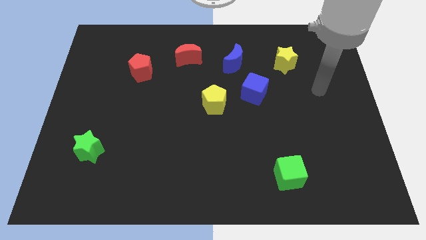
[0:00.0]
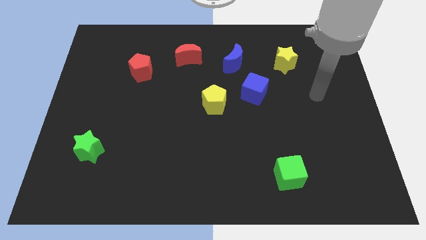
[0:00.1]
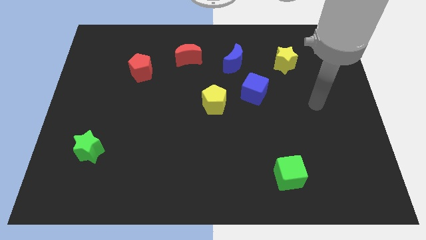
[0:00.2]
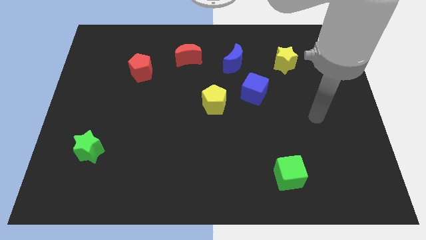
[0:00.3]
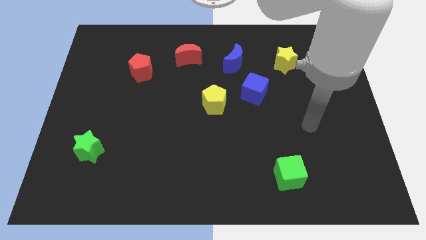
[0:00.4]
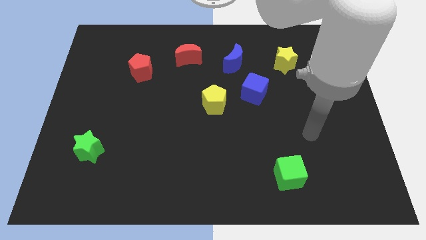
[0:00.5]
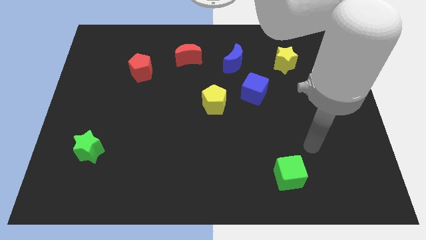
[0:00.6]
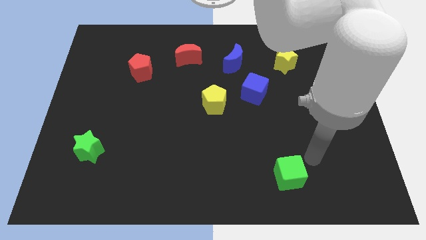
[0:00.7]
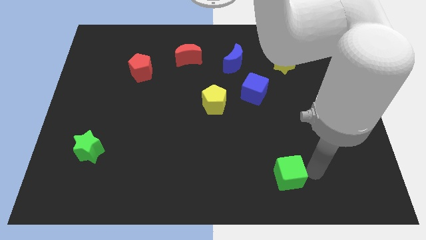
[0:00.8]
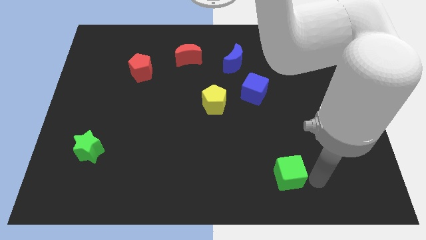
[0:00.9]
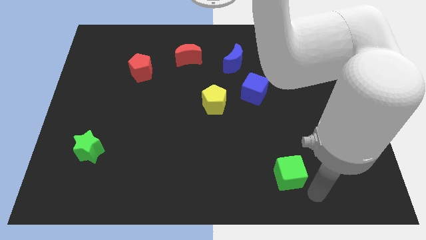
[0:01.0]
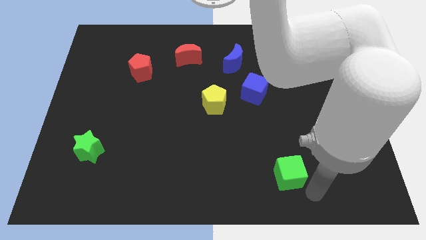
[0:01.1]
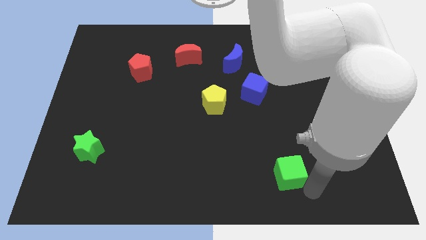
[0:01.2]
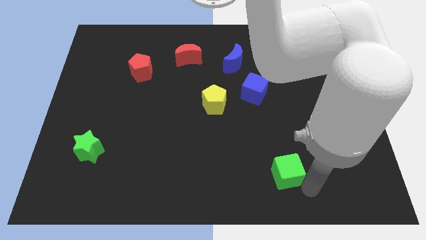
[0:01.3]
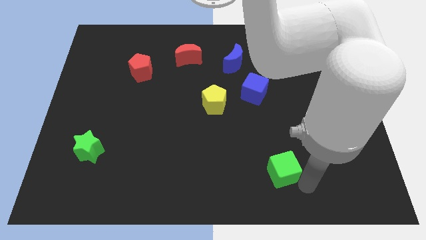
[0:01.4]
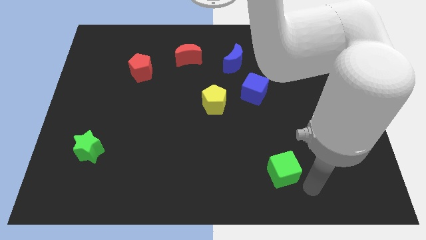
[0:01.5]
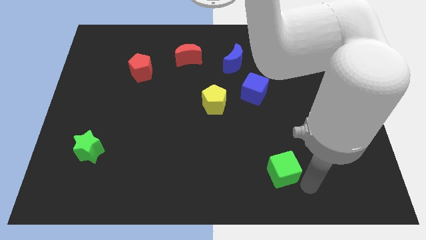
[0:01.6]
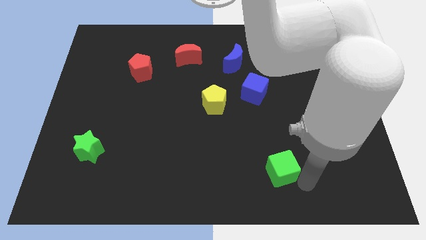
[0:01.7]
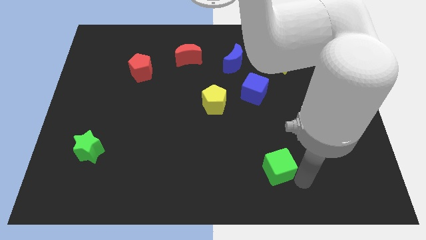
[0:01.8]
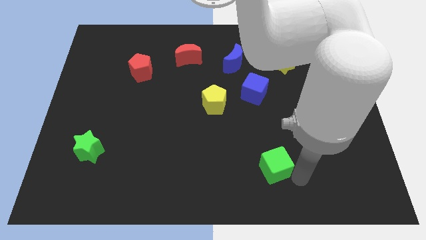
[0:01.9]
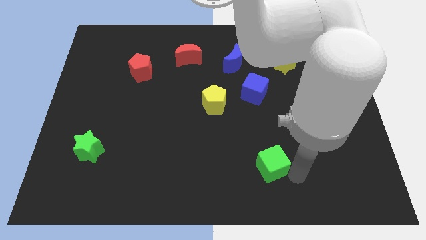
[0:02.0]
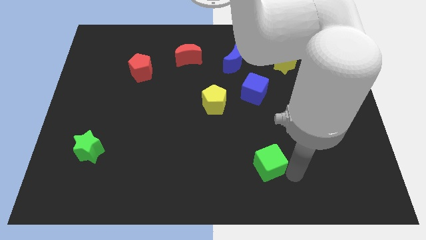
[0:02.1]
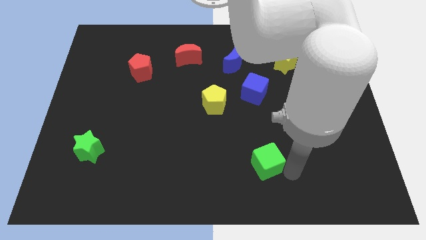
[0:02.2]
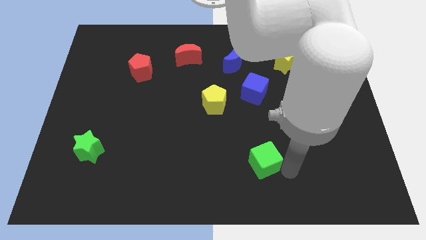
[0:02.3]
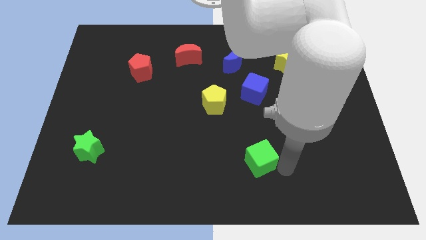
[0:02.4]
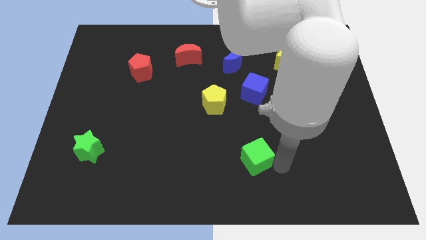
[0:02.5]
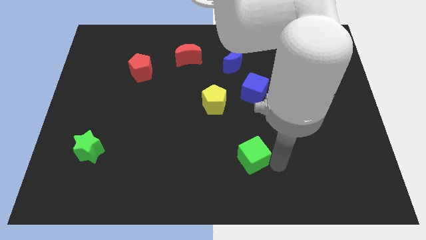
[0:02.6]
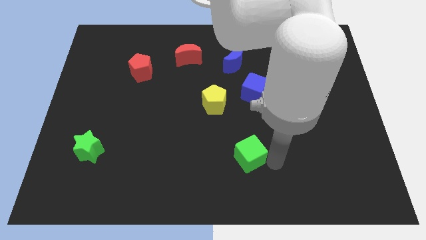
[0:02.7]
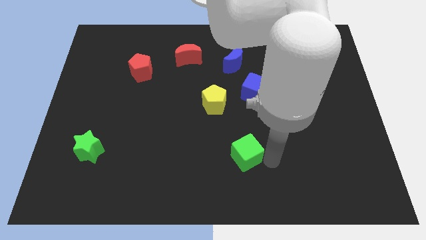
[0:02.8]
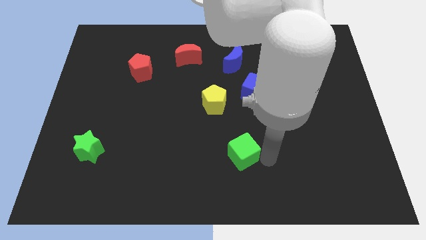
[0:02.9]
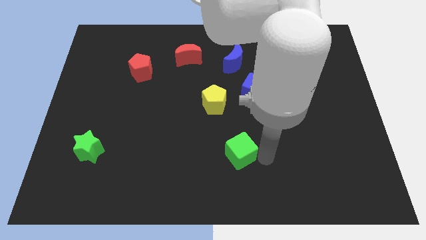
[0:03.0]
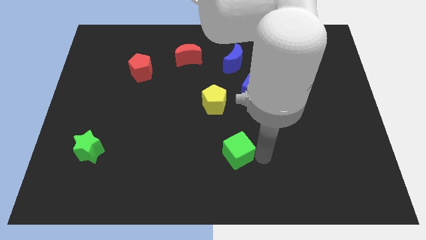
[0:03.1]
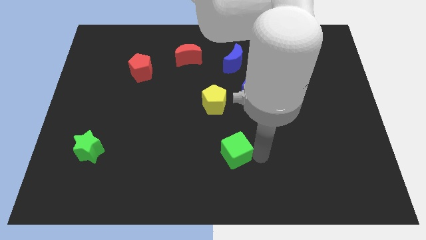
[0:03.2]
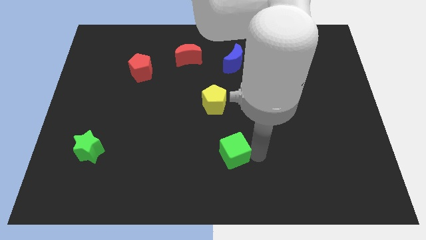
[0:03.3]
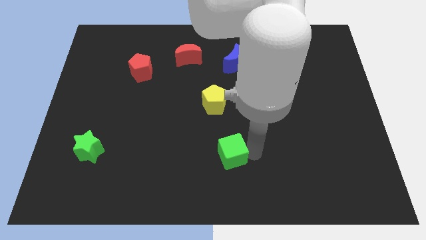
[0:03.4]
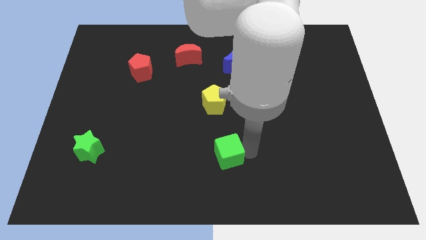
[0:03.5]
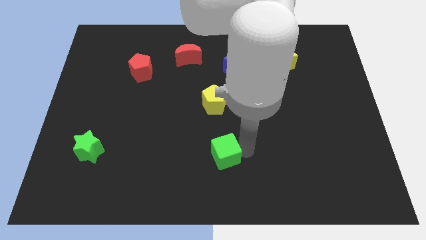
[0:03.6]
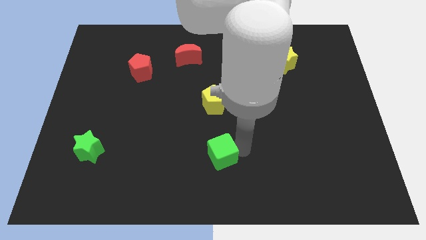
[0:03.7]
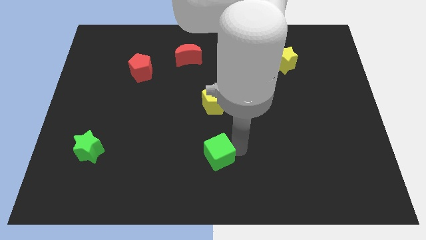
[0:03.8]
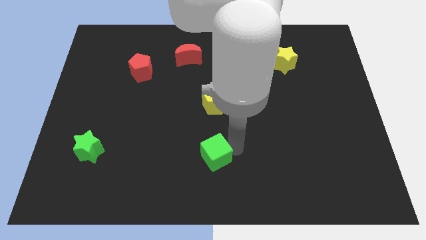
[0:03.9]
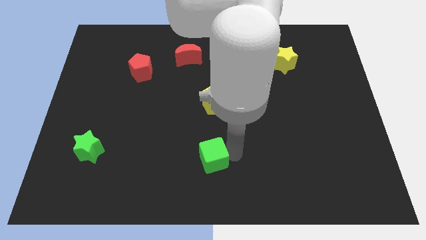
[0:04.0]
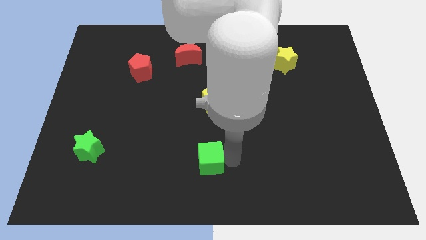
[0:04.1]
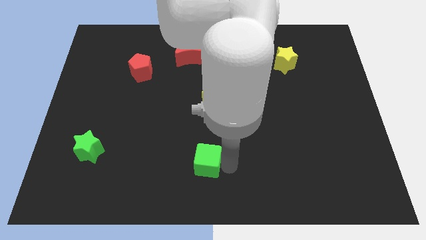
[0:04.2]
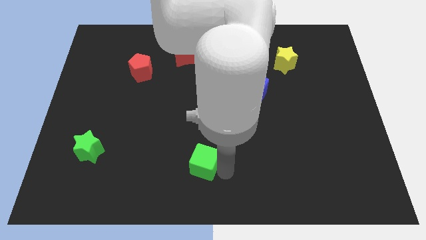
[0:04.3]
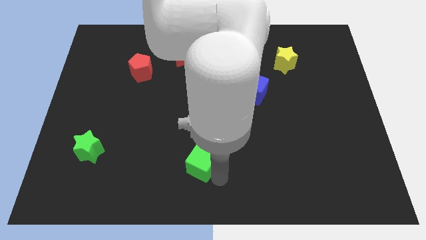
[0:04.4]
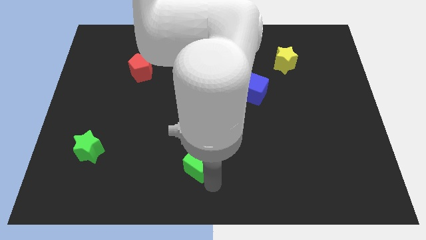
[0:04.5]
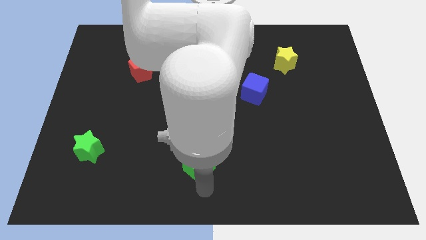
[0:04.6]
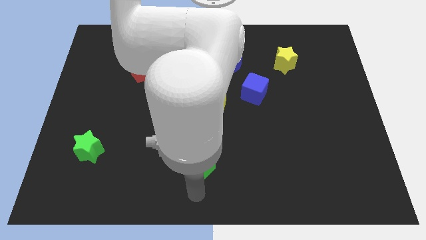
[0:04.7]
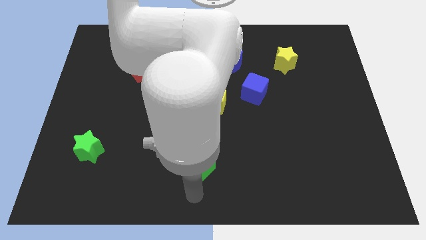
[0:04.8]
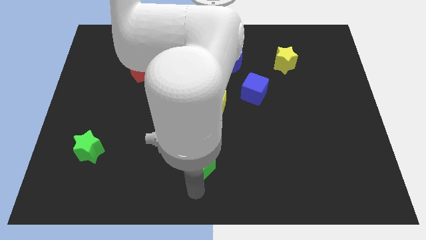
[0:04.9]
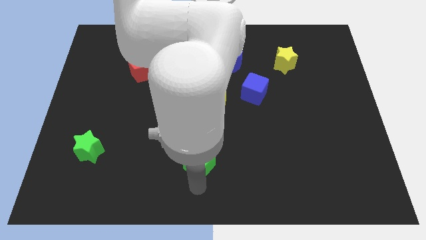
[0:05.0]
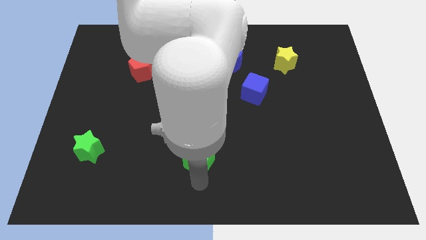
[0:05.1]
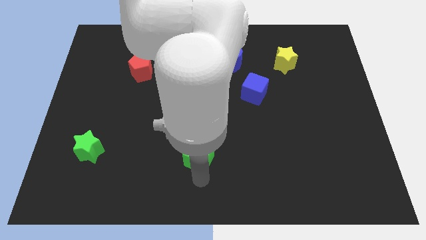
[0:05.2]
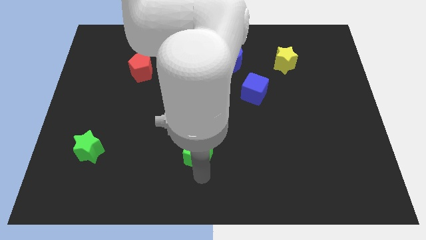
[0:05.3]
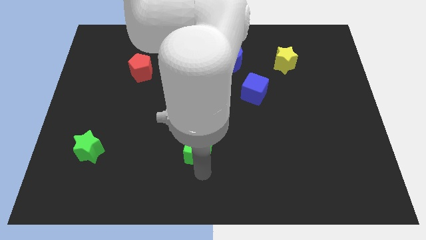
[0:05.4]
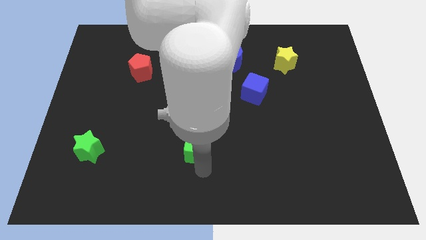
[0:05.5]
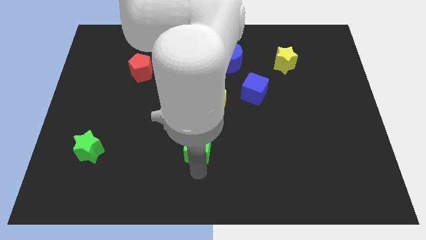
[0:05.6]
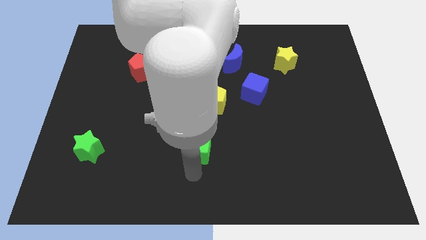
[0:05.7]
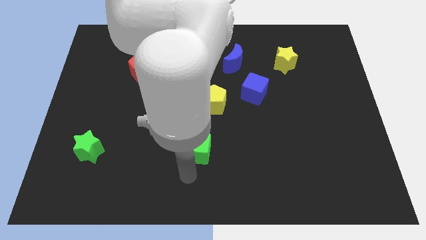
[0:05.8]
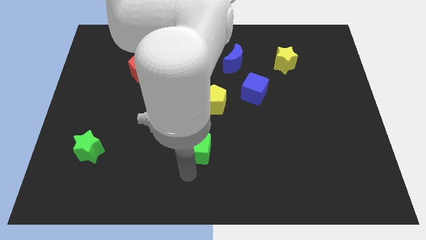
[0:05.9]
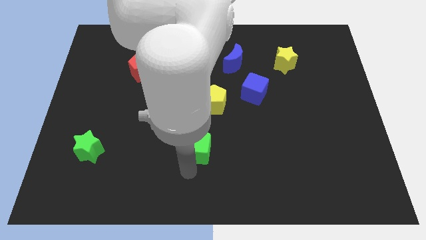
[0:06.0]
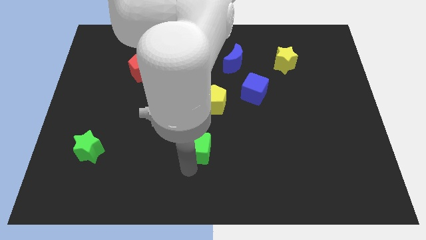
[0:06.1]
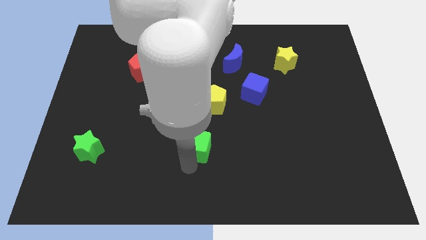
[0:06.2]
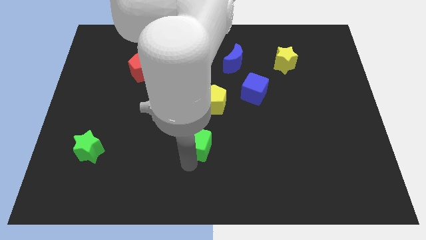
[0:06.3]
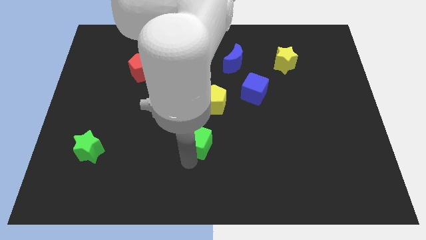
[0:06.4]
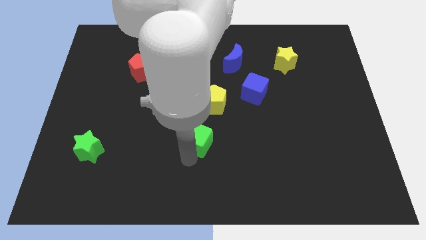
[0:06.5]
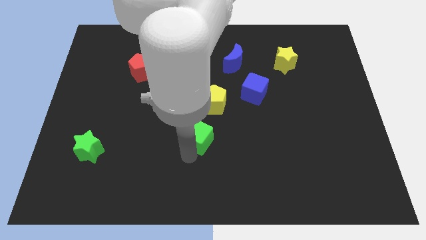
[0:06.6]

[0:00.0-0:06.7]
put the green cube diagonally down and to the left of the yellow pentagon
